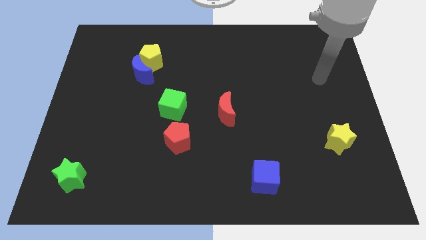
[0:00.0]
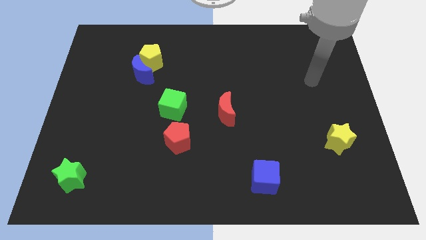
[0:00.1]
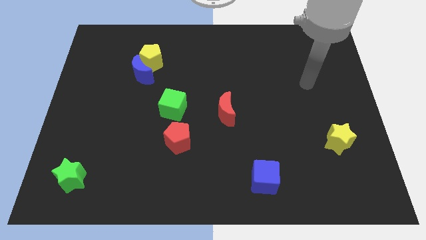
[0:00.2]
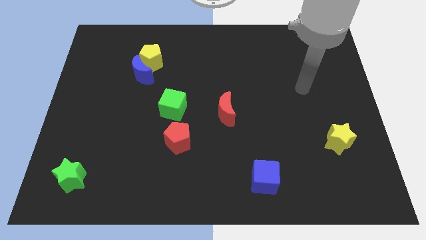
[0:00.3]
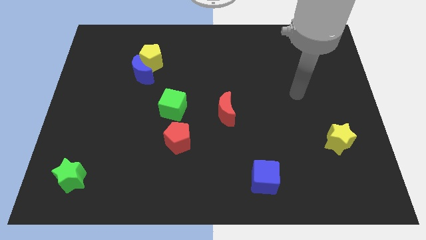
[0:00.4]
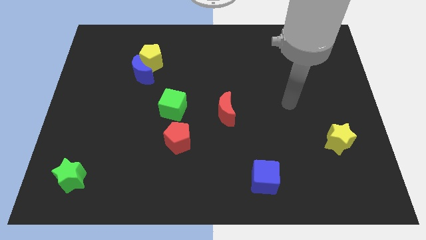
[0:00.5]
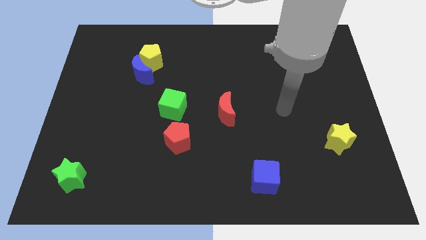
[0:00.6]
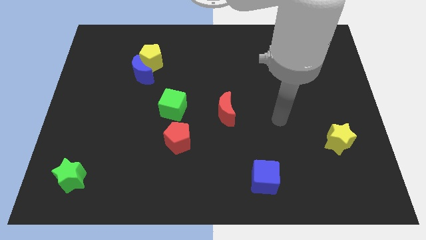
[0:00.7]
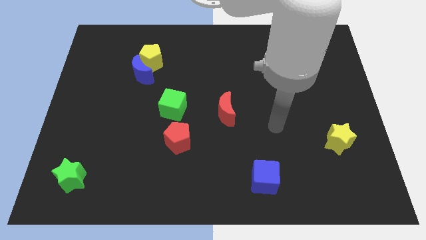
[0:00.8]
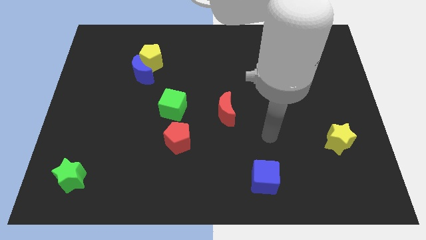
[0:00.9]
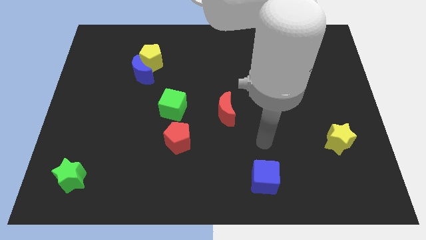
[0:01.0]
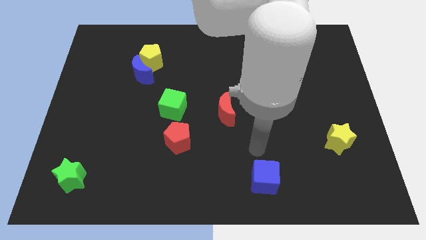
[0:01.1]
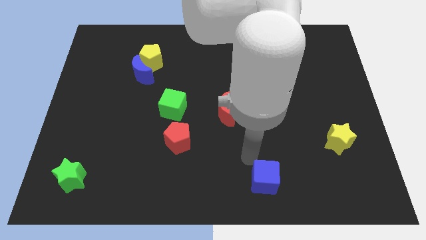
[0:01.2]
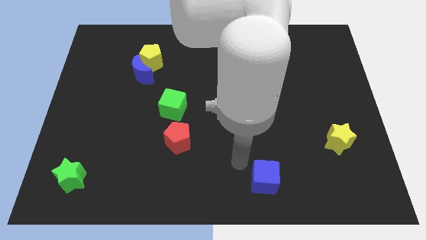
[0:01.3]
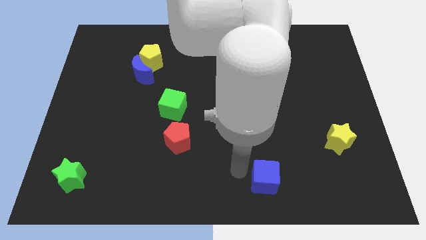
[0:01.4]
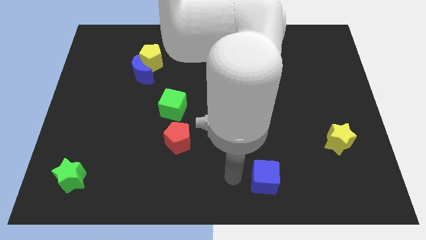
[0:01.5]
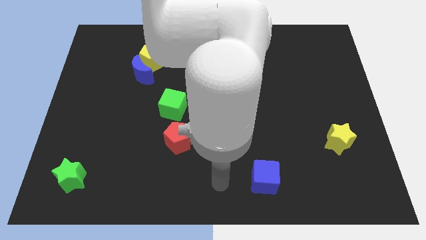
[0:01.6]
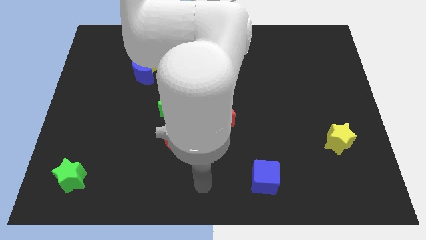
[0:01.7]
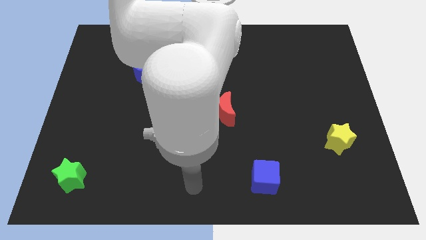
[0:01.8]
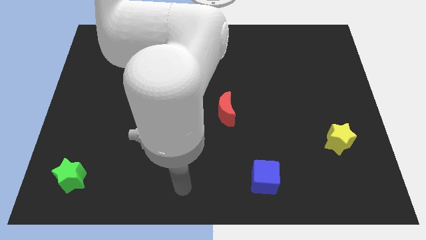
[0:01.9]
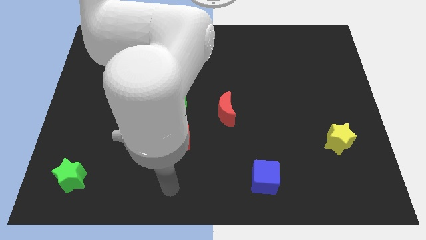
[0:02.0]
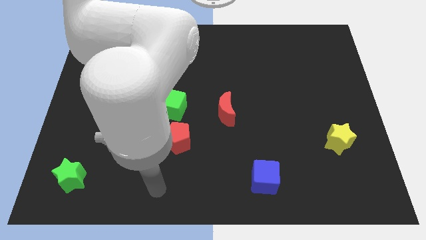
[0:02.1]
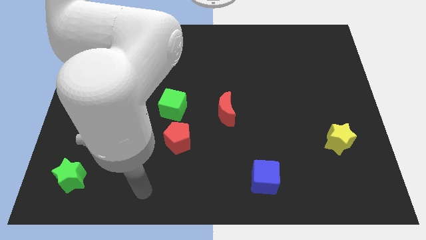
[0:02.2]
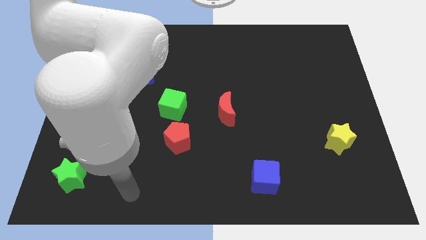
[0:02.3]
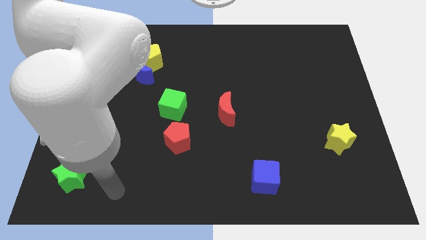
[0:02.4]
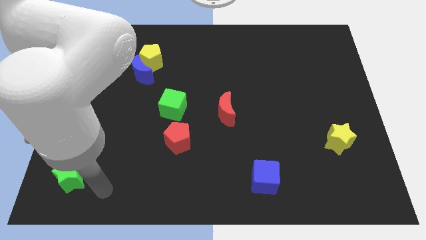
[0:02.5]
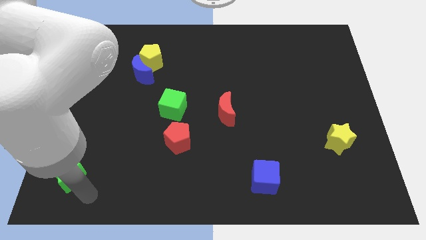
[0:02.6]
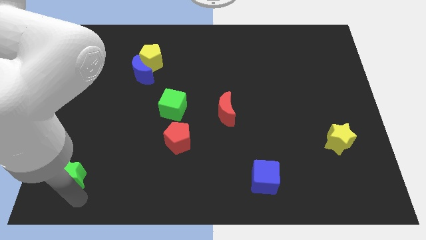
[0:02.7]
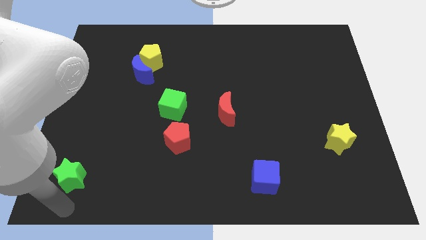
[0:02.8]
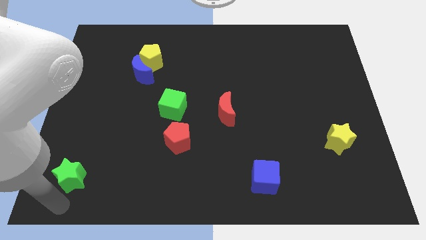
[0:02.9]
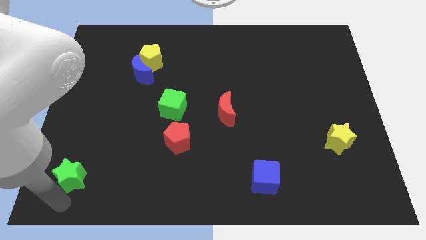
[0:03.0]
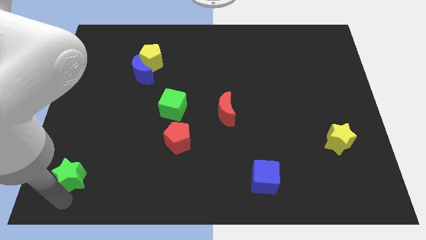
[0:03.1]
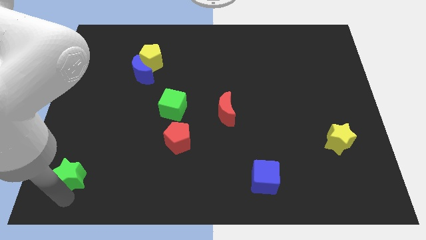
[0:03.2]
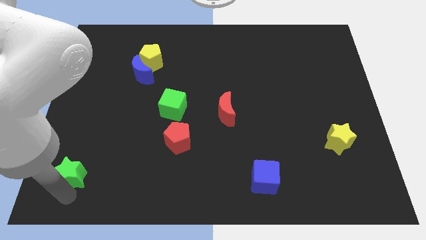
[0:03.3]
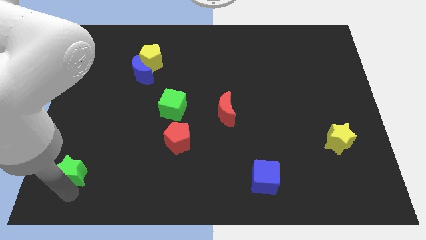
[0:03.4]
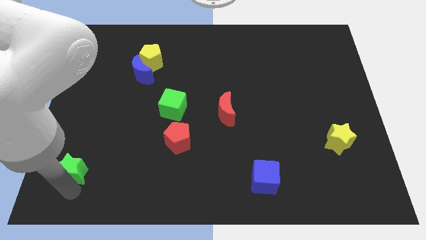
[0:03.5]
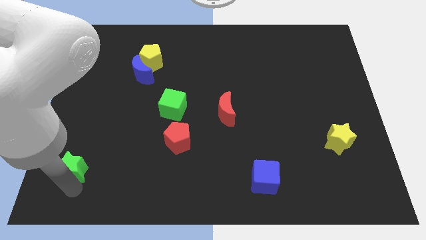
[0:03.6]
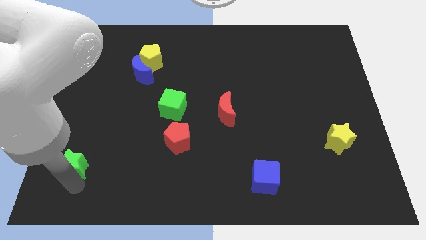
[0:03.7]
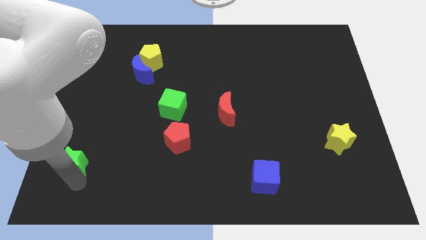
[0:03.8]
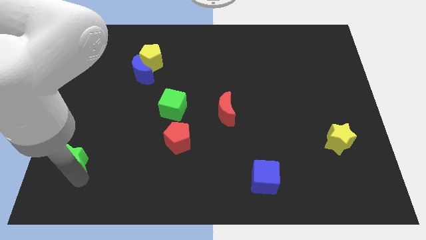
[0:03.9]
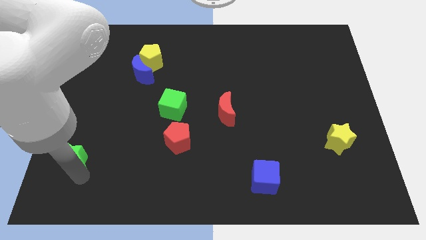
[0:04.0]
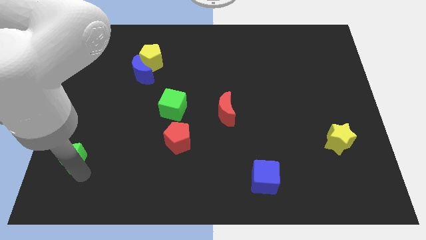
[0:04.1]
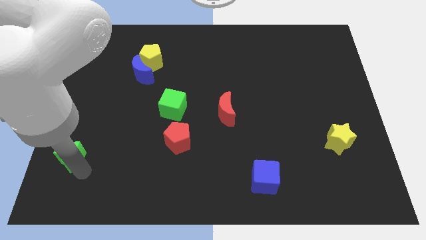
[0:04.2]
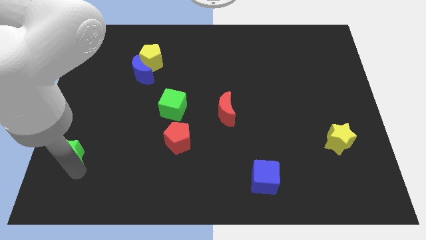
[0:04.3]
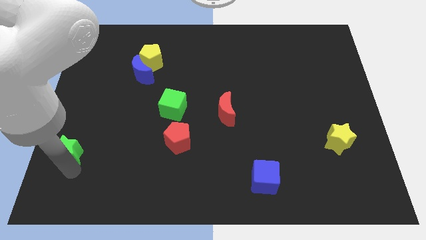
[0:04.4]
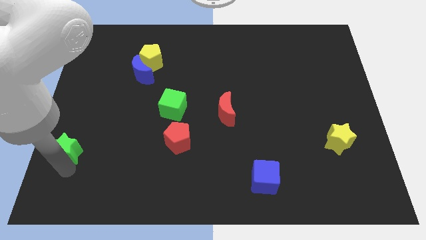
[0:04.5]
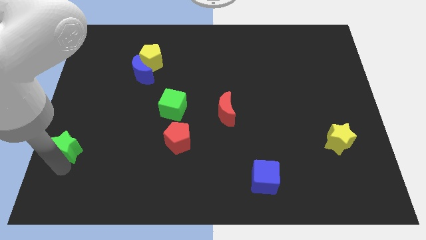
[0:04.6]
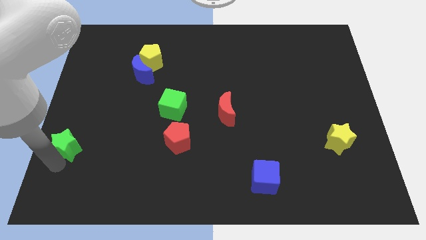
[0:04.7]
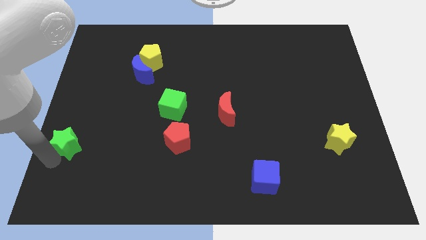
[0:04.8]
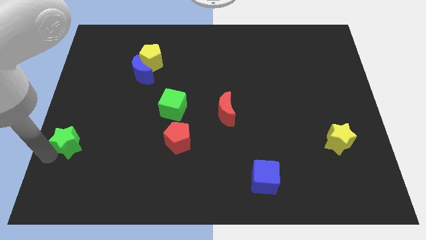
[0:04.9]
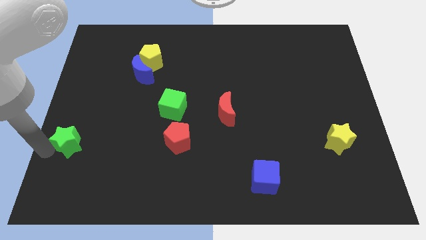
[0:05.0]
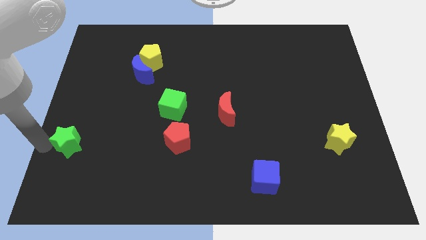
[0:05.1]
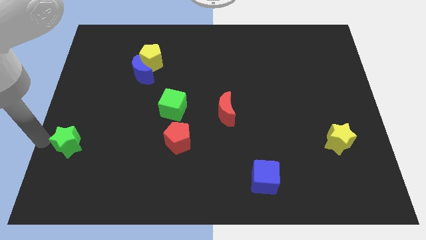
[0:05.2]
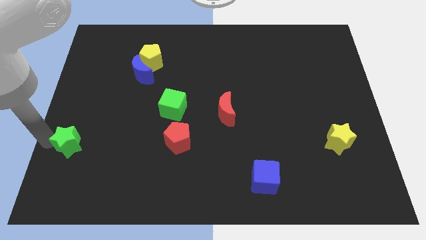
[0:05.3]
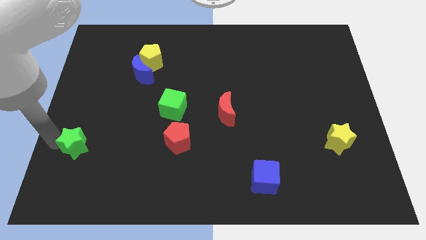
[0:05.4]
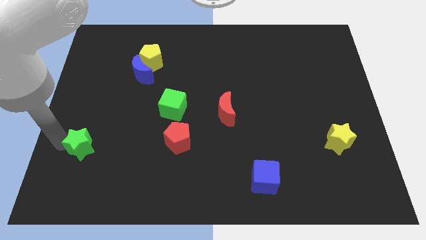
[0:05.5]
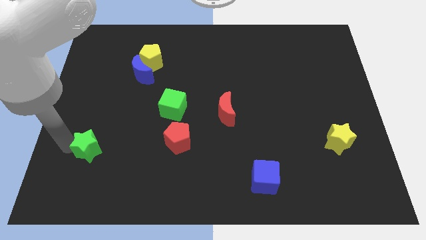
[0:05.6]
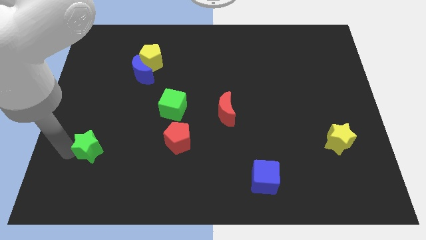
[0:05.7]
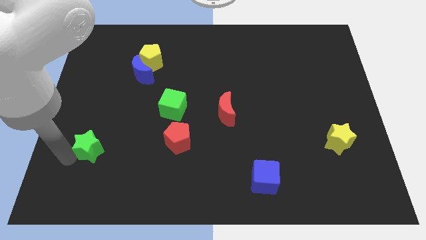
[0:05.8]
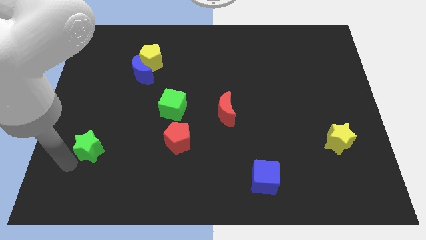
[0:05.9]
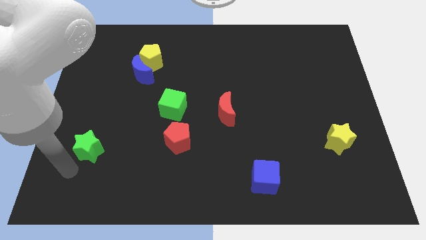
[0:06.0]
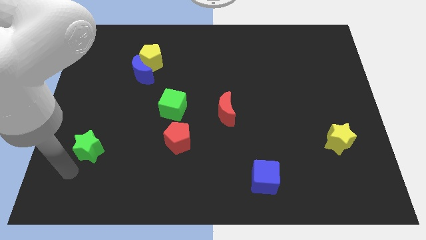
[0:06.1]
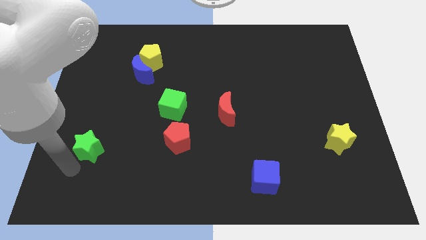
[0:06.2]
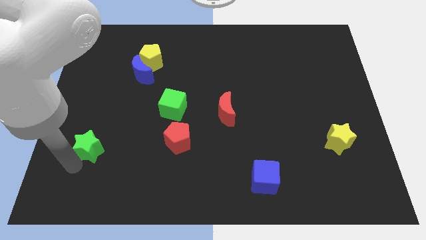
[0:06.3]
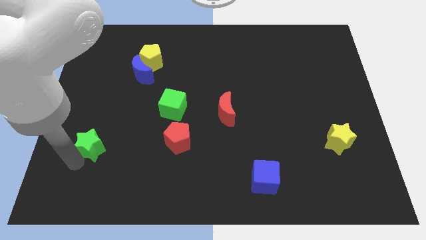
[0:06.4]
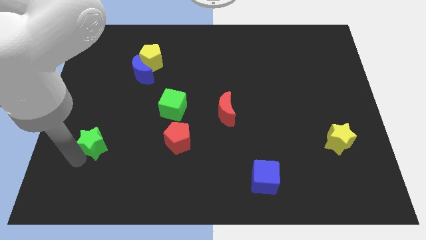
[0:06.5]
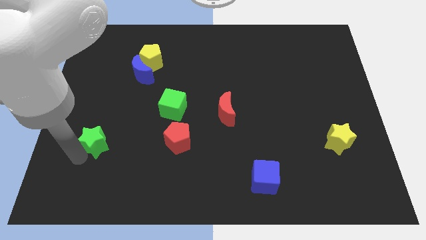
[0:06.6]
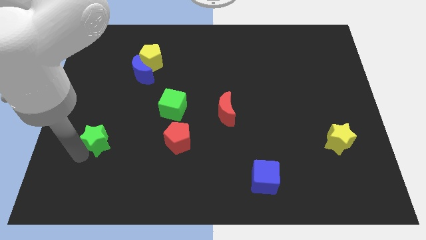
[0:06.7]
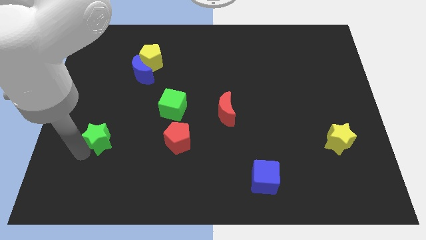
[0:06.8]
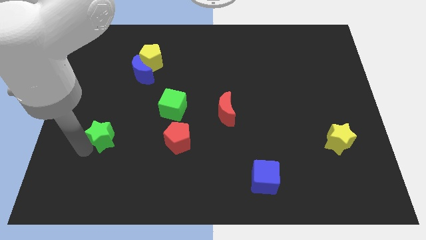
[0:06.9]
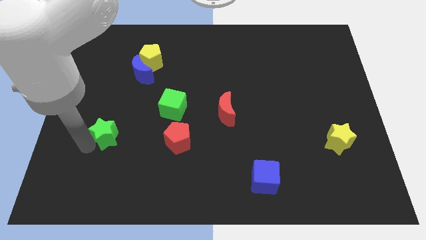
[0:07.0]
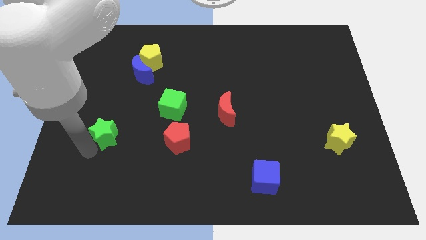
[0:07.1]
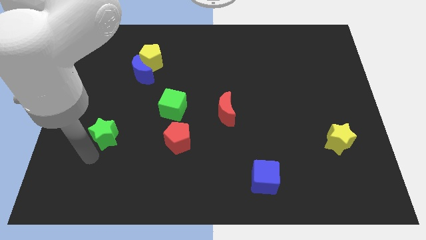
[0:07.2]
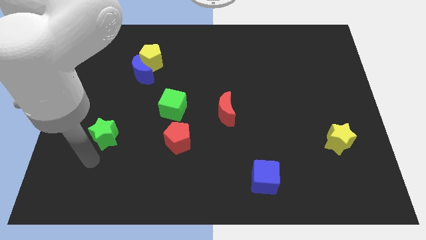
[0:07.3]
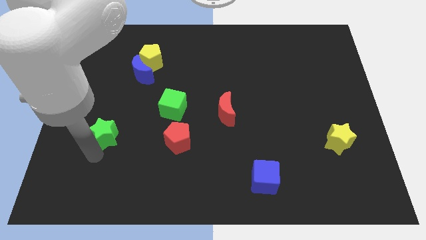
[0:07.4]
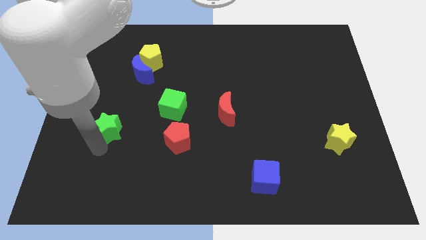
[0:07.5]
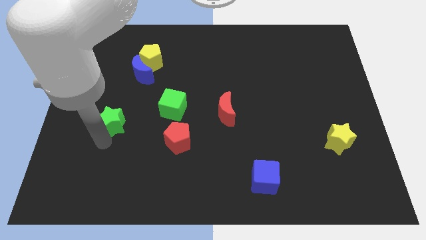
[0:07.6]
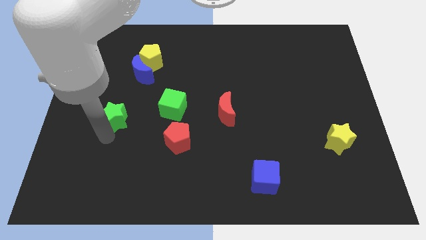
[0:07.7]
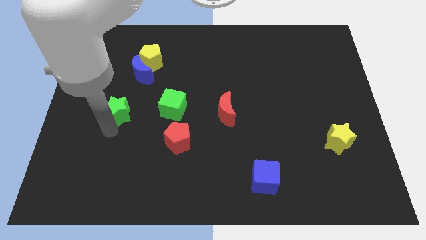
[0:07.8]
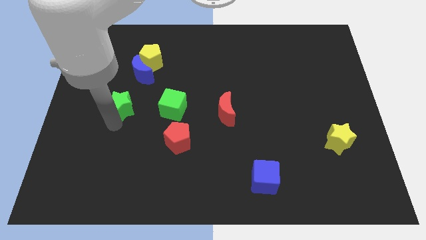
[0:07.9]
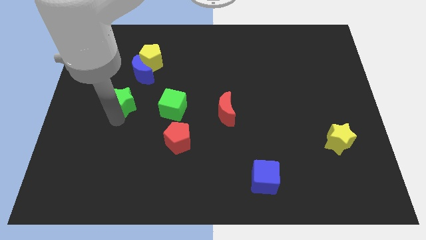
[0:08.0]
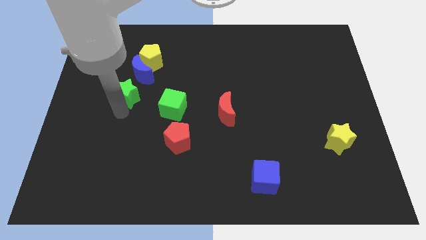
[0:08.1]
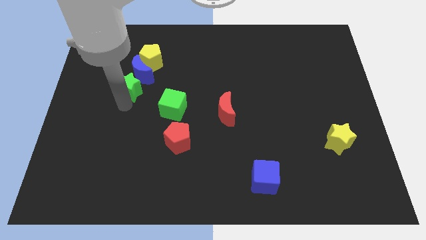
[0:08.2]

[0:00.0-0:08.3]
slide the green star towards the blue moon
